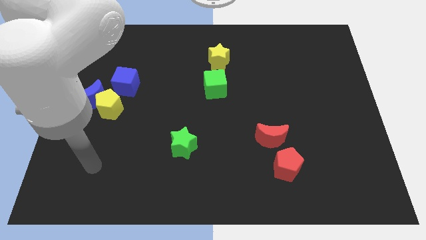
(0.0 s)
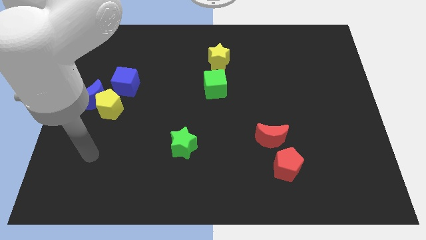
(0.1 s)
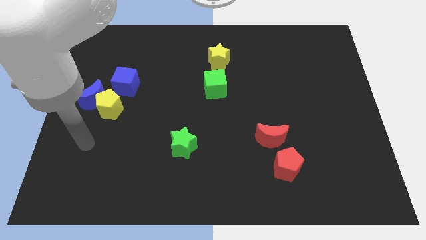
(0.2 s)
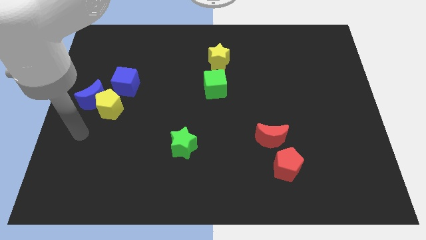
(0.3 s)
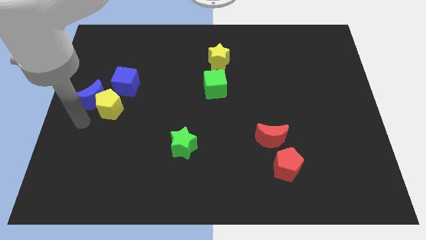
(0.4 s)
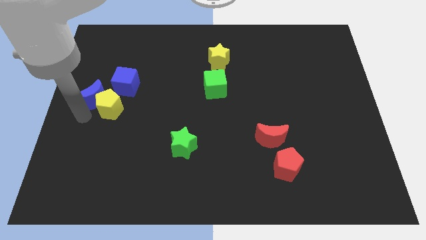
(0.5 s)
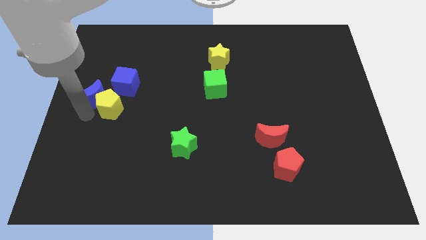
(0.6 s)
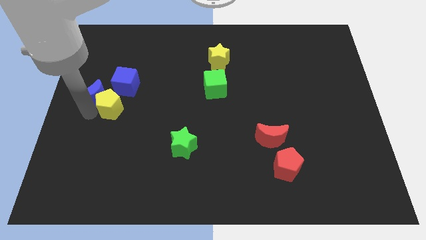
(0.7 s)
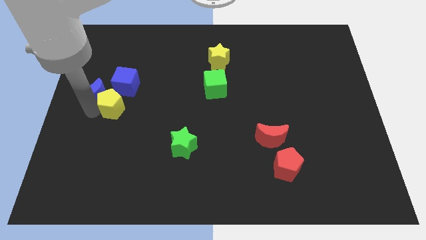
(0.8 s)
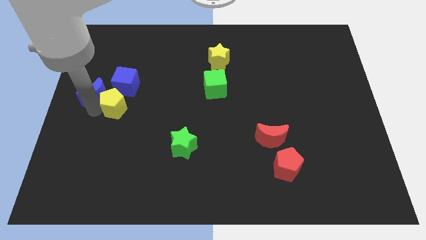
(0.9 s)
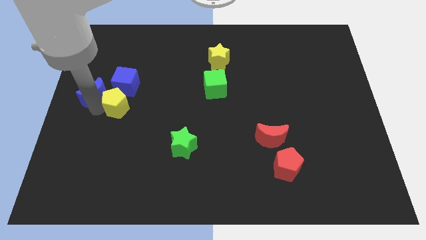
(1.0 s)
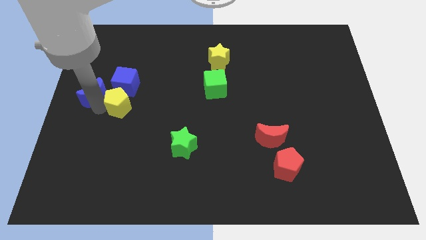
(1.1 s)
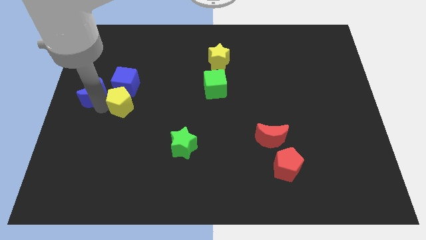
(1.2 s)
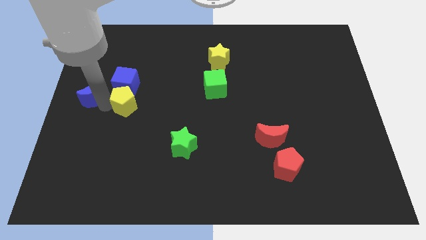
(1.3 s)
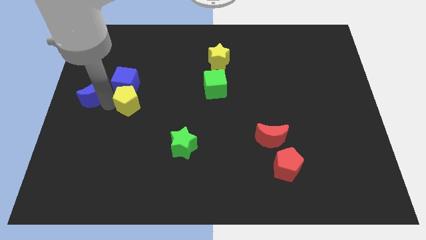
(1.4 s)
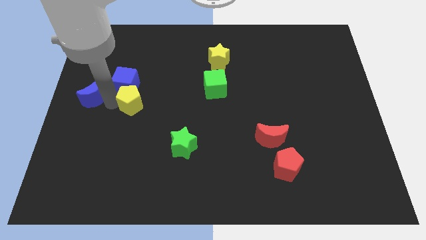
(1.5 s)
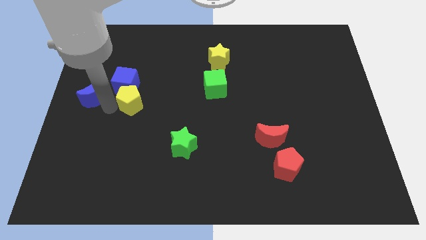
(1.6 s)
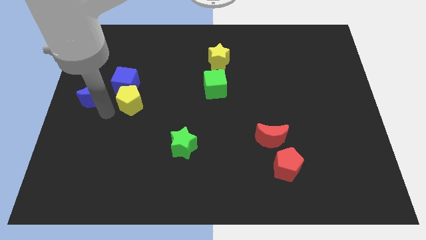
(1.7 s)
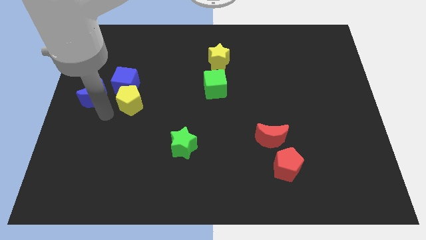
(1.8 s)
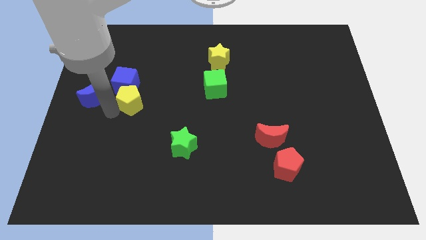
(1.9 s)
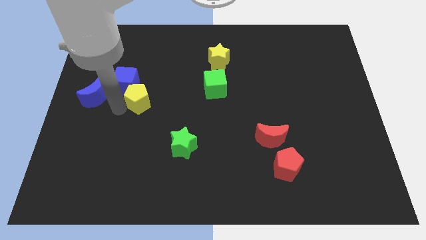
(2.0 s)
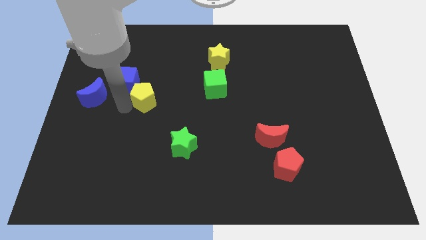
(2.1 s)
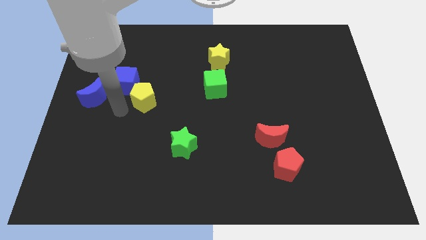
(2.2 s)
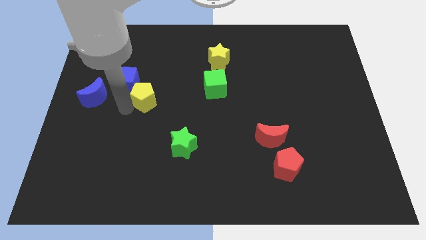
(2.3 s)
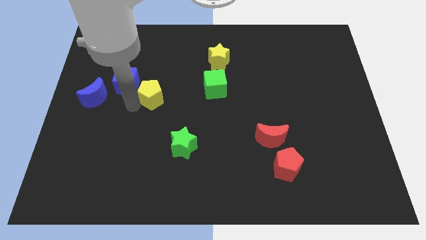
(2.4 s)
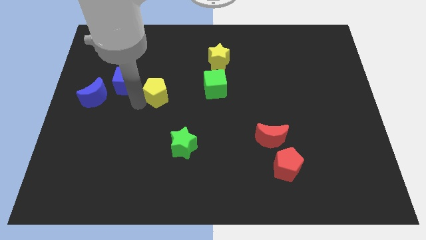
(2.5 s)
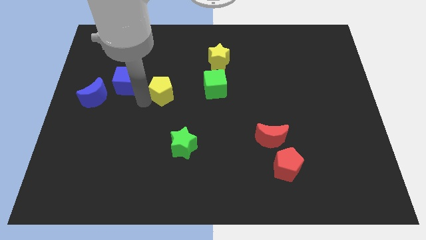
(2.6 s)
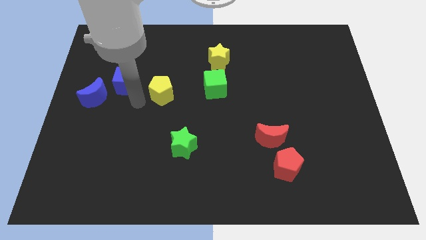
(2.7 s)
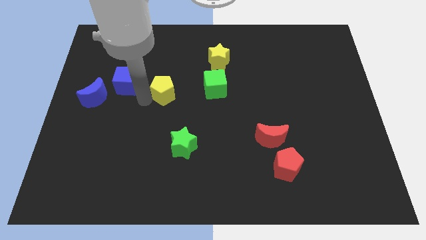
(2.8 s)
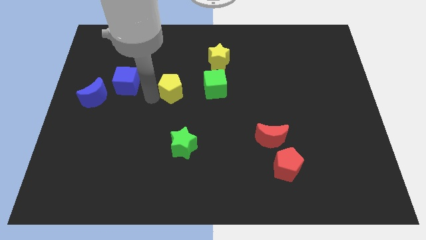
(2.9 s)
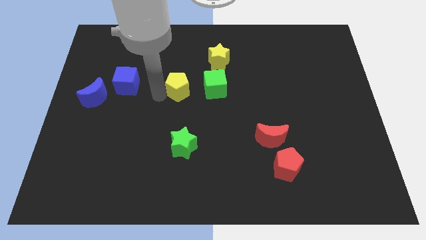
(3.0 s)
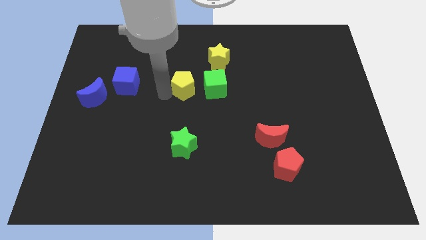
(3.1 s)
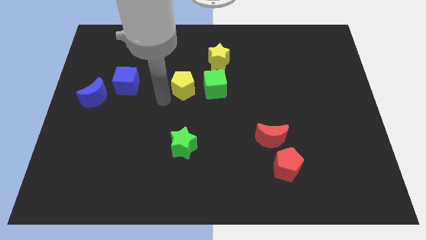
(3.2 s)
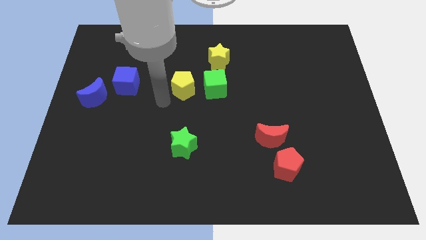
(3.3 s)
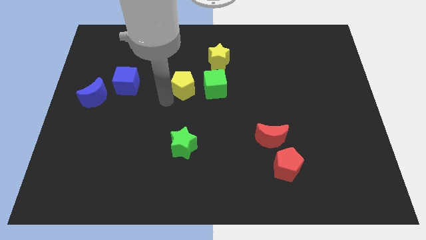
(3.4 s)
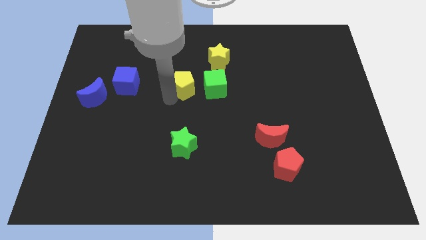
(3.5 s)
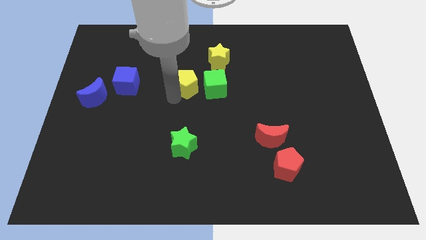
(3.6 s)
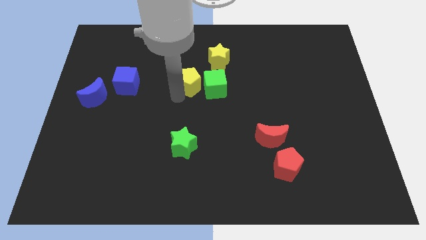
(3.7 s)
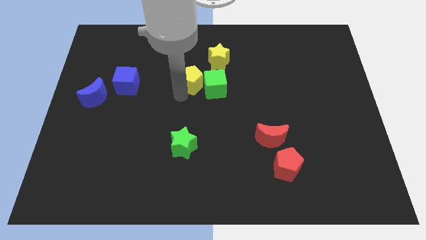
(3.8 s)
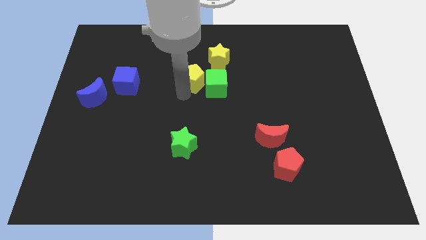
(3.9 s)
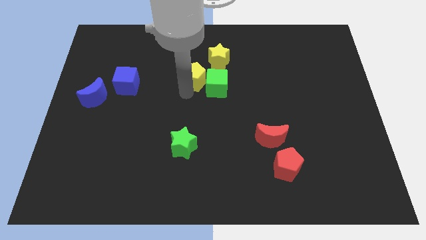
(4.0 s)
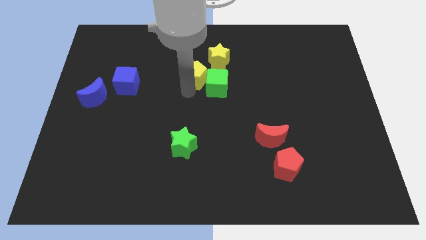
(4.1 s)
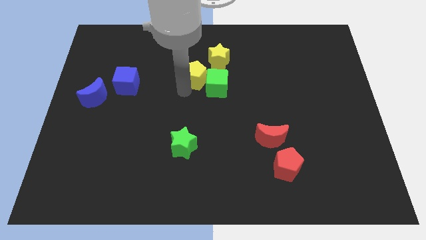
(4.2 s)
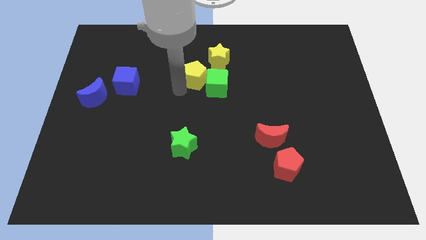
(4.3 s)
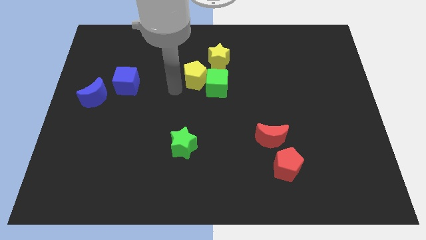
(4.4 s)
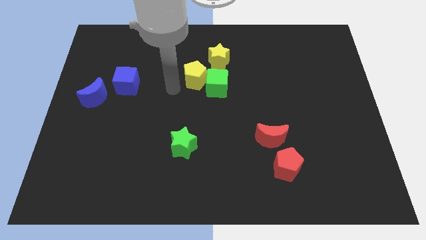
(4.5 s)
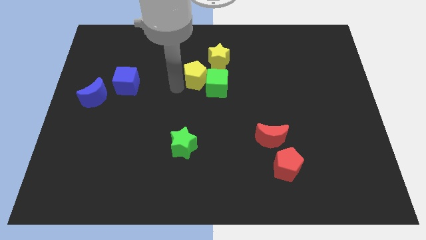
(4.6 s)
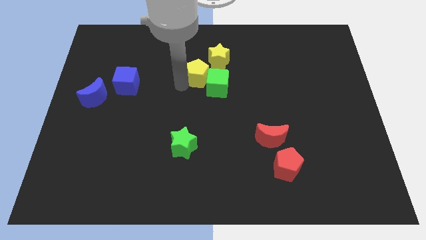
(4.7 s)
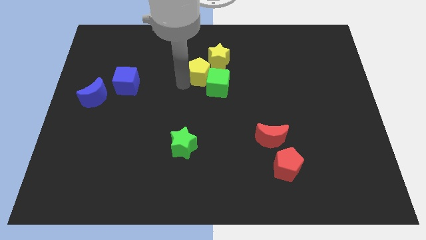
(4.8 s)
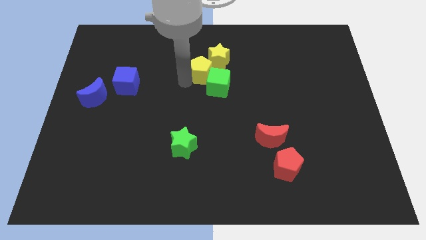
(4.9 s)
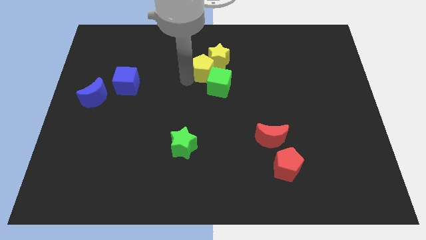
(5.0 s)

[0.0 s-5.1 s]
slide the yellow pentagon next to the yellow star

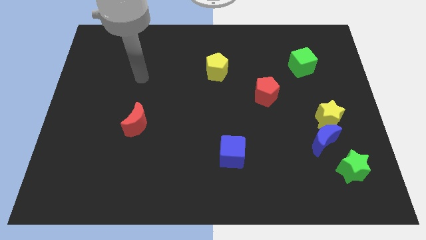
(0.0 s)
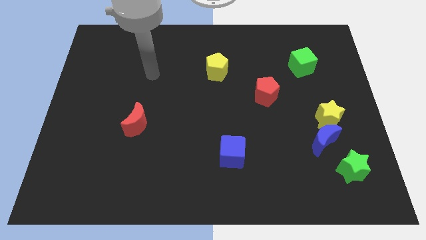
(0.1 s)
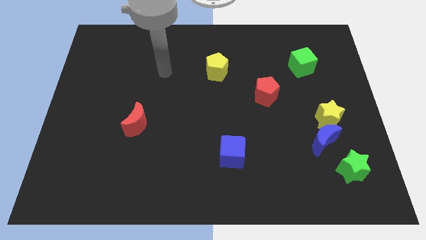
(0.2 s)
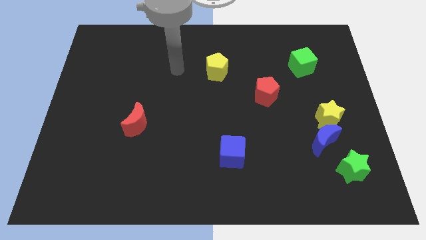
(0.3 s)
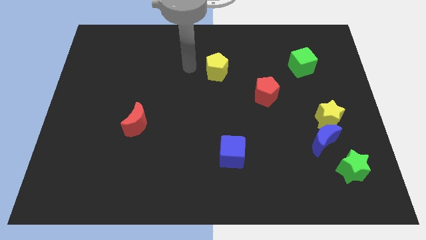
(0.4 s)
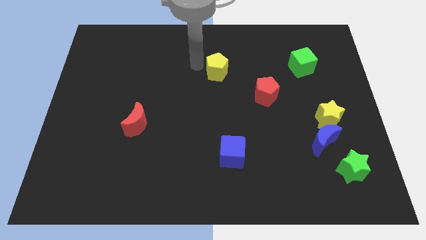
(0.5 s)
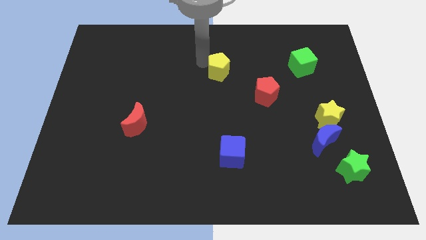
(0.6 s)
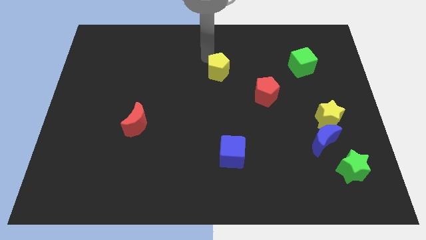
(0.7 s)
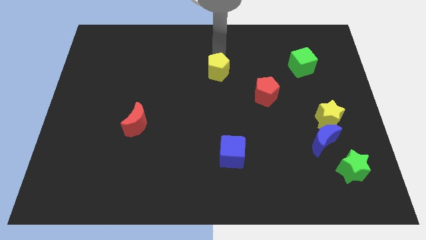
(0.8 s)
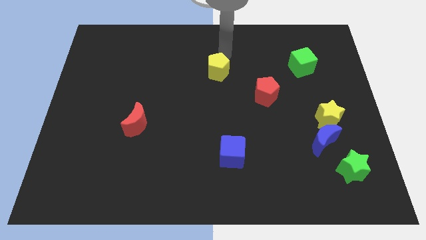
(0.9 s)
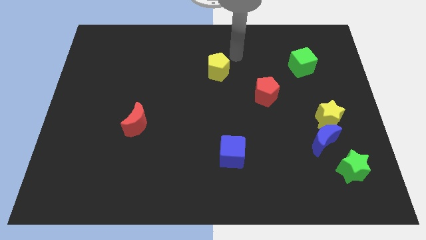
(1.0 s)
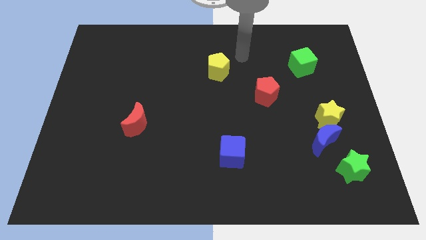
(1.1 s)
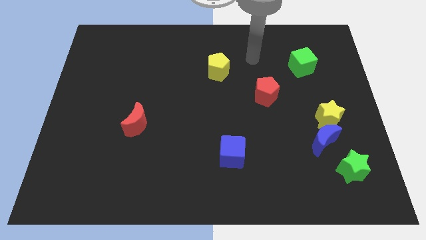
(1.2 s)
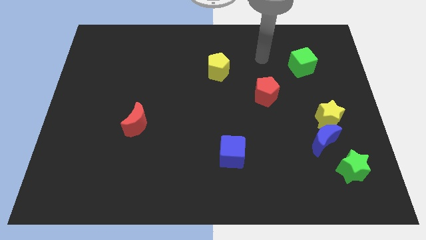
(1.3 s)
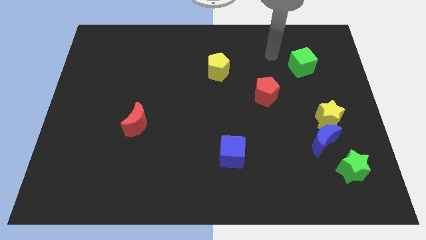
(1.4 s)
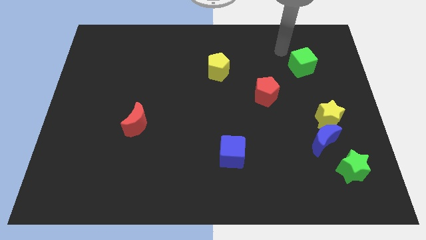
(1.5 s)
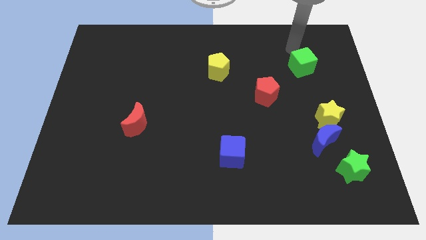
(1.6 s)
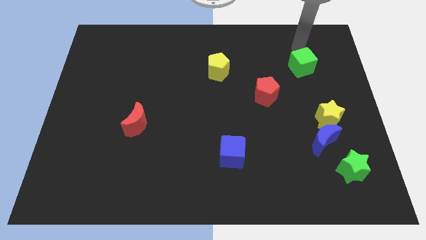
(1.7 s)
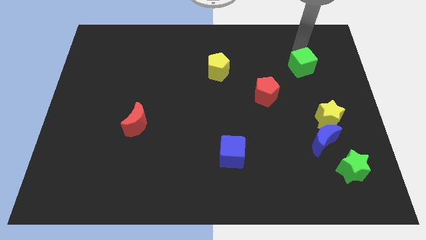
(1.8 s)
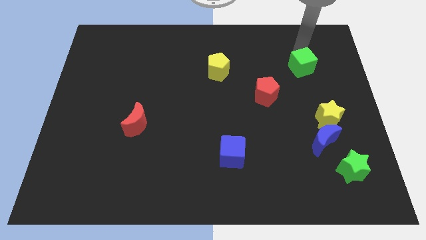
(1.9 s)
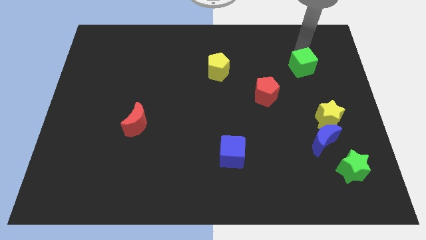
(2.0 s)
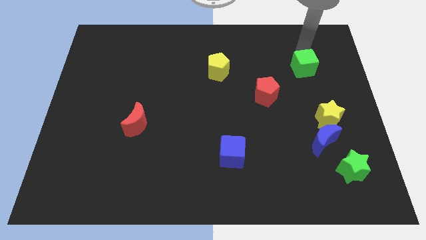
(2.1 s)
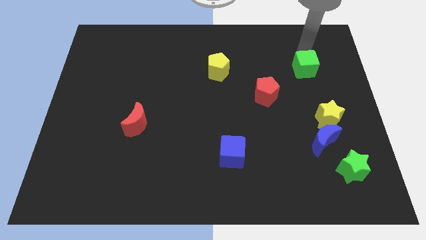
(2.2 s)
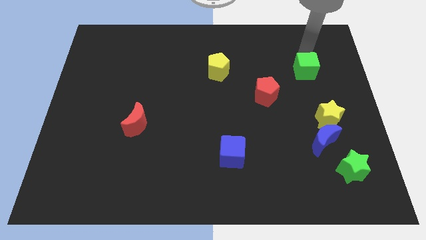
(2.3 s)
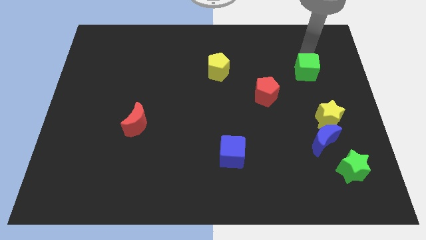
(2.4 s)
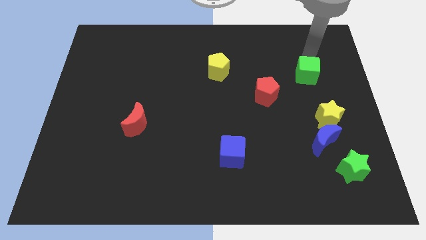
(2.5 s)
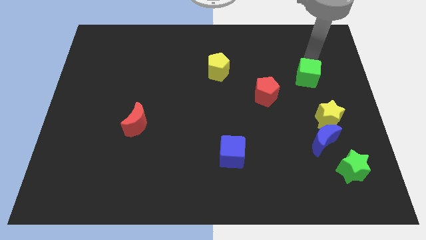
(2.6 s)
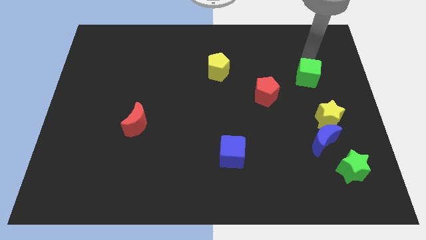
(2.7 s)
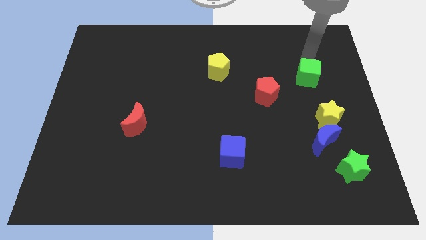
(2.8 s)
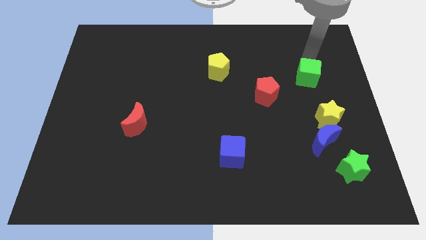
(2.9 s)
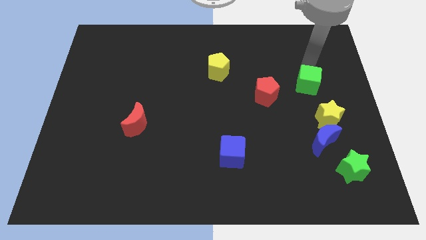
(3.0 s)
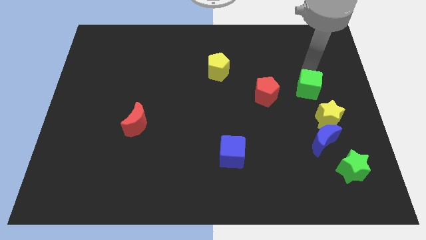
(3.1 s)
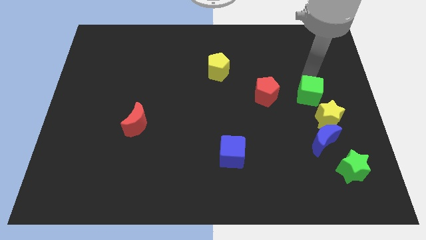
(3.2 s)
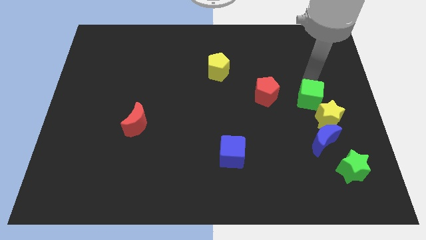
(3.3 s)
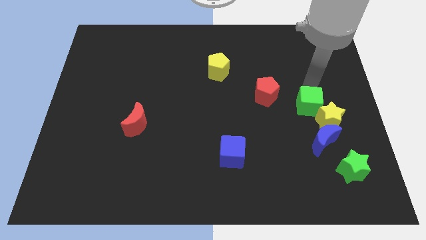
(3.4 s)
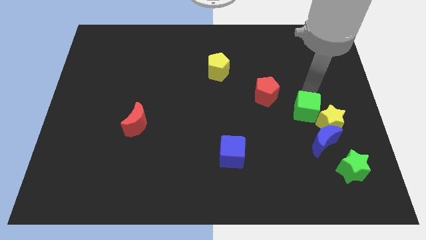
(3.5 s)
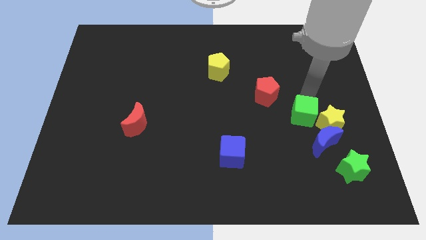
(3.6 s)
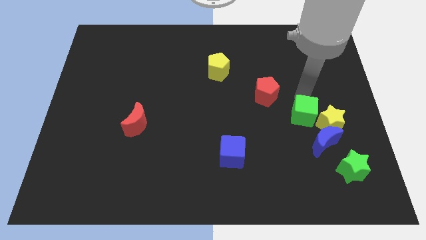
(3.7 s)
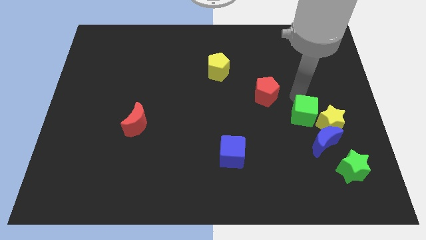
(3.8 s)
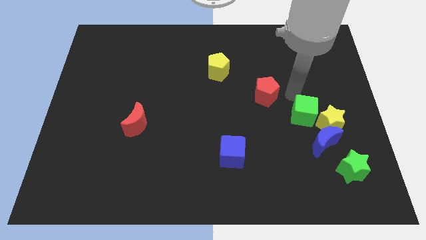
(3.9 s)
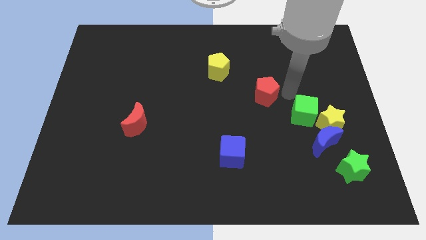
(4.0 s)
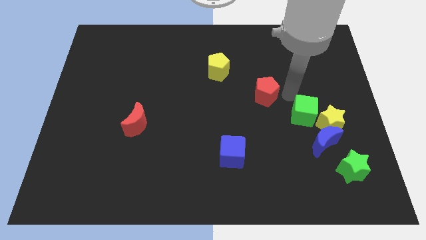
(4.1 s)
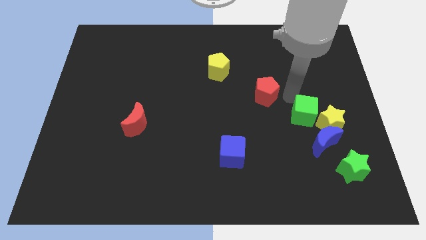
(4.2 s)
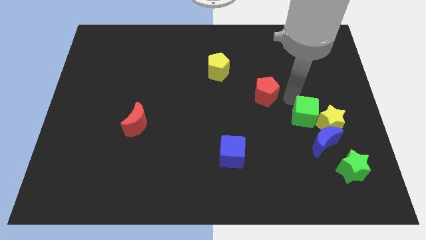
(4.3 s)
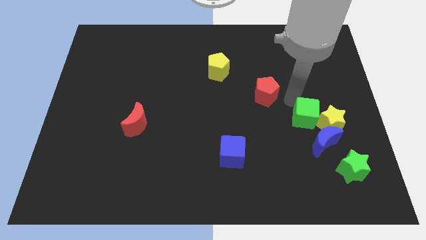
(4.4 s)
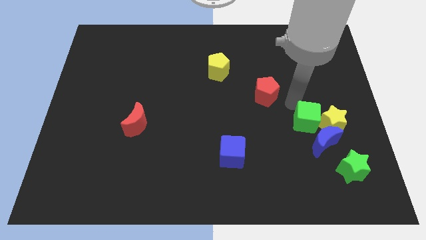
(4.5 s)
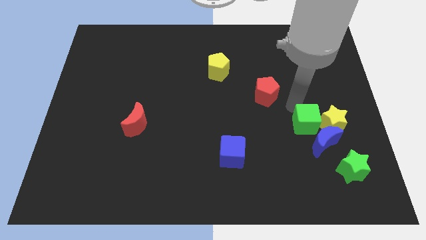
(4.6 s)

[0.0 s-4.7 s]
push the green cube to the blue moon
